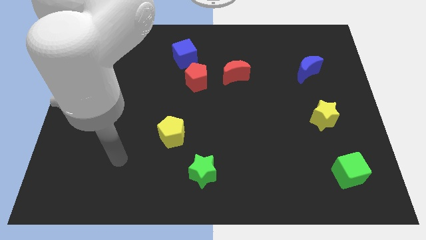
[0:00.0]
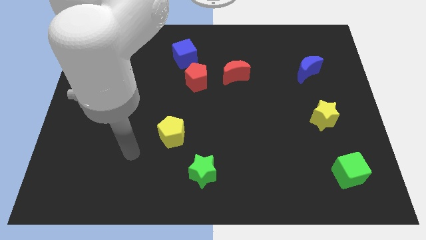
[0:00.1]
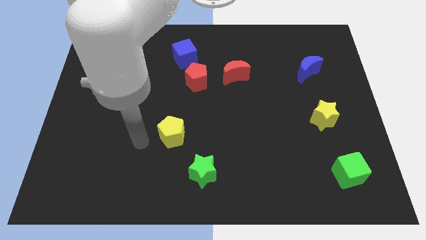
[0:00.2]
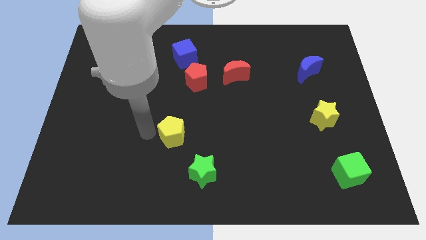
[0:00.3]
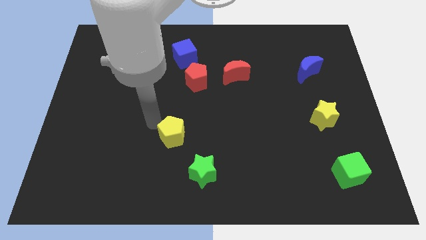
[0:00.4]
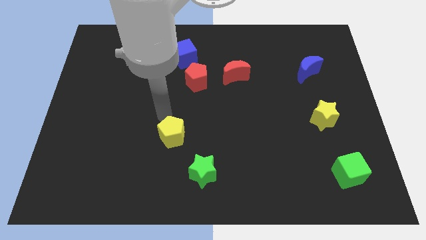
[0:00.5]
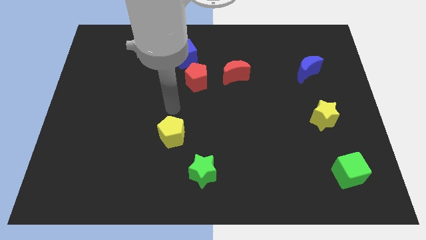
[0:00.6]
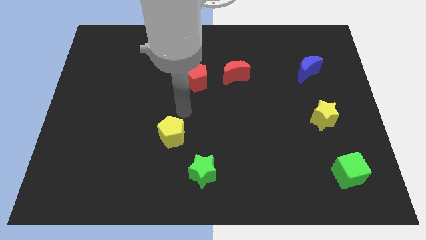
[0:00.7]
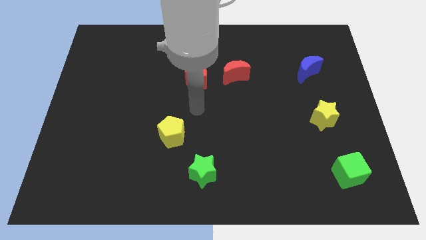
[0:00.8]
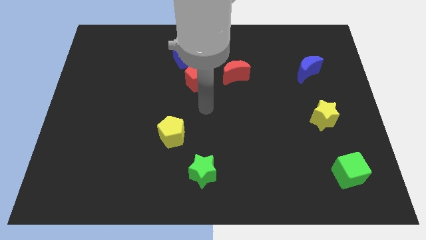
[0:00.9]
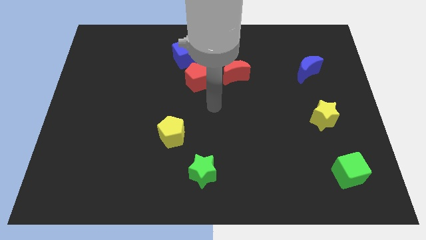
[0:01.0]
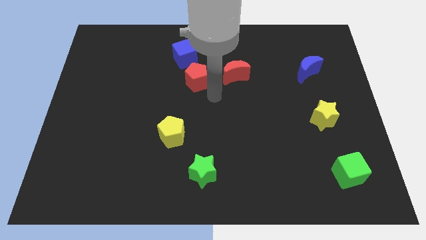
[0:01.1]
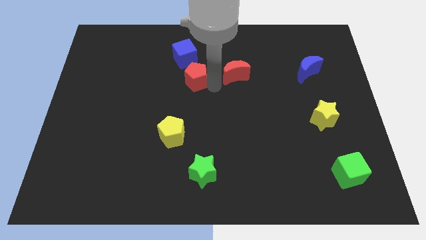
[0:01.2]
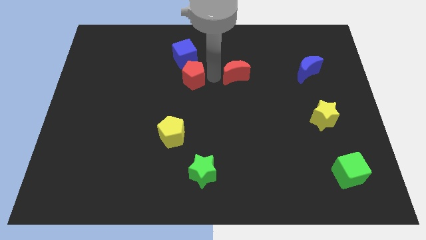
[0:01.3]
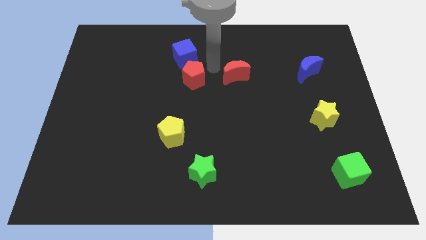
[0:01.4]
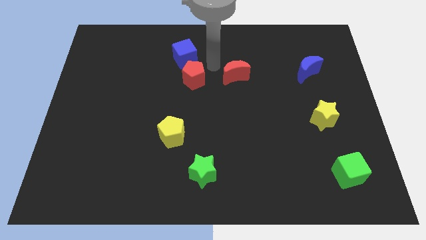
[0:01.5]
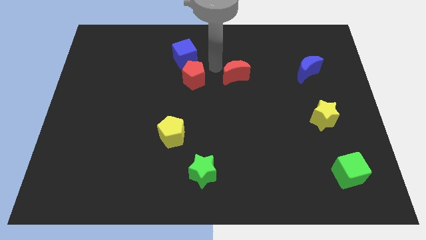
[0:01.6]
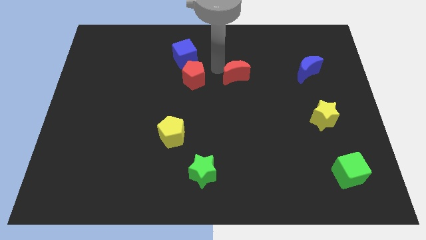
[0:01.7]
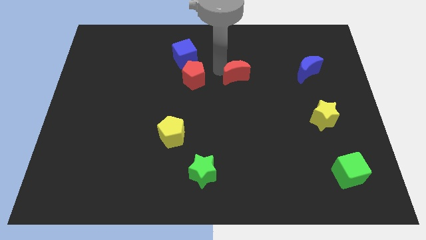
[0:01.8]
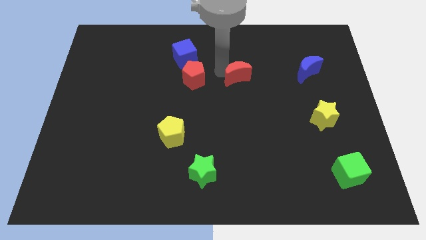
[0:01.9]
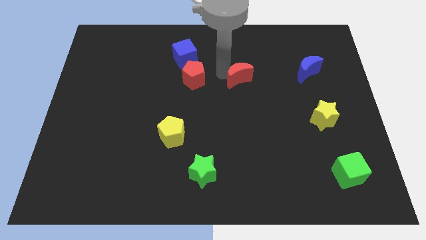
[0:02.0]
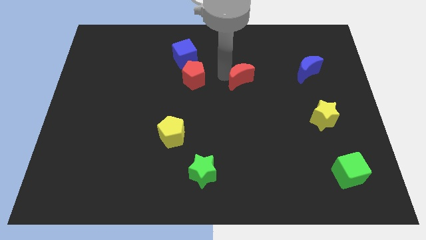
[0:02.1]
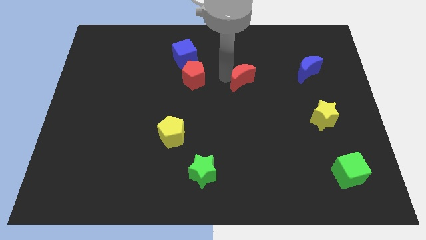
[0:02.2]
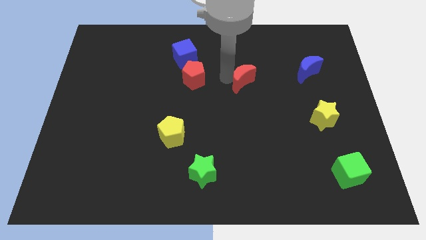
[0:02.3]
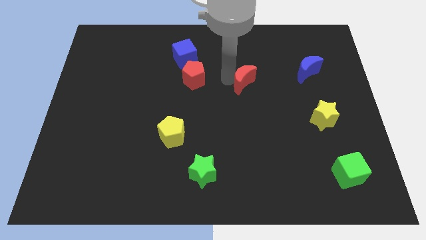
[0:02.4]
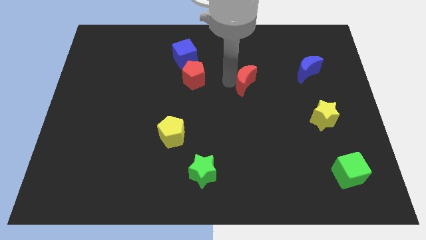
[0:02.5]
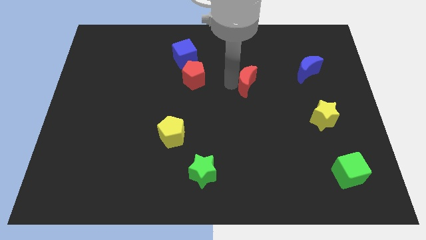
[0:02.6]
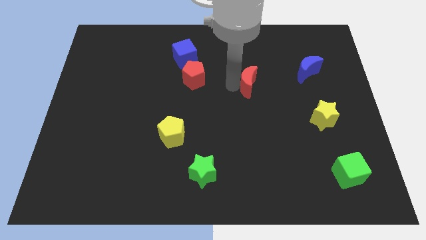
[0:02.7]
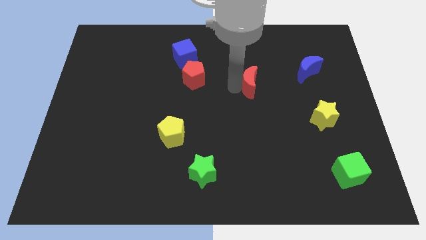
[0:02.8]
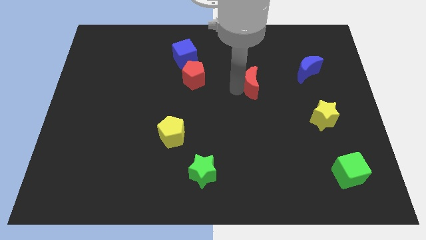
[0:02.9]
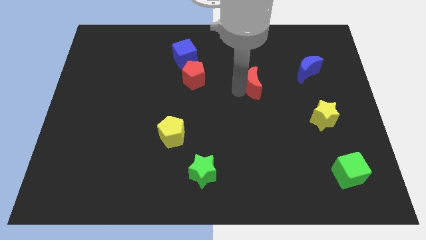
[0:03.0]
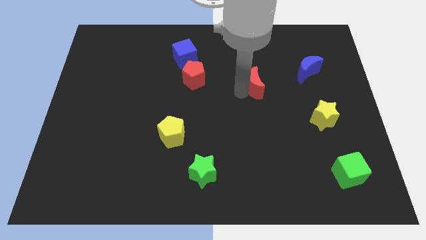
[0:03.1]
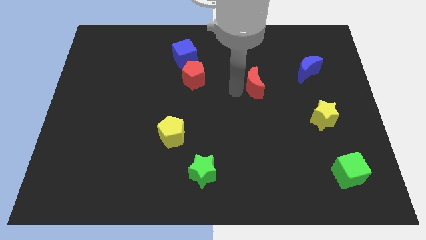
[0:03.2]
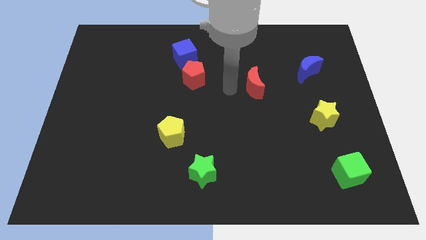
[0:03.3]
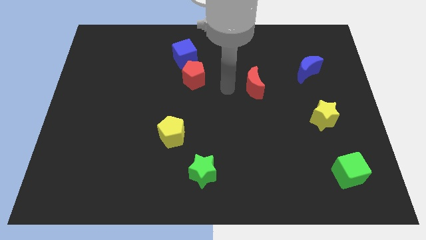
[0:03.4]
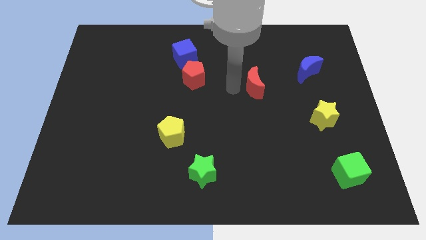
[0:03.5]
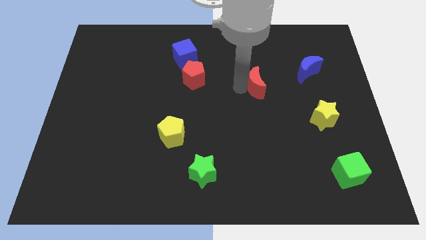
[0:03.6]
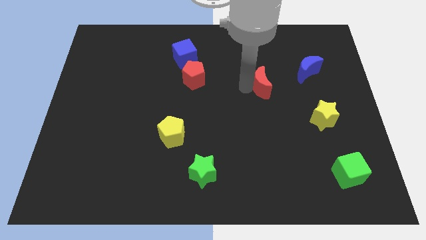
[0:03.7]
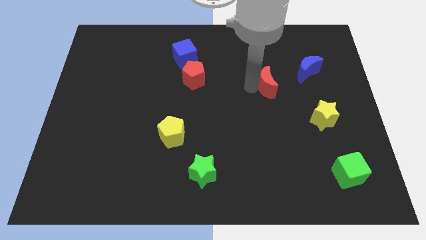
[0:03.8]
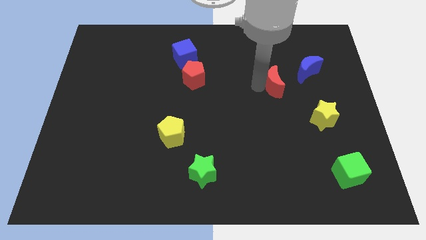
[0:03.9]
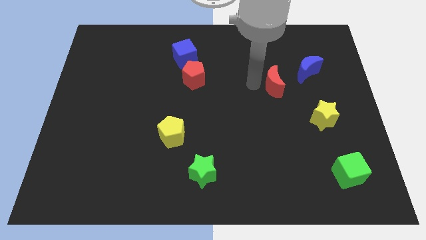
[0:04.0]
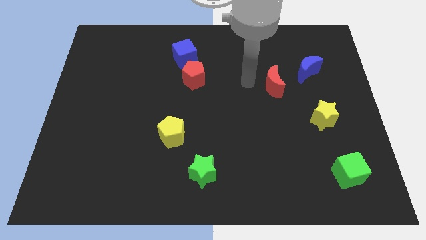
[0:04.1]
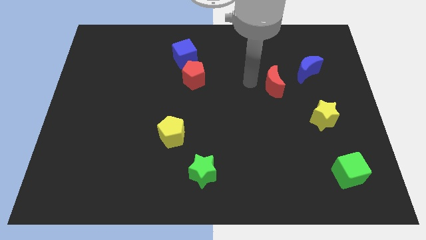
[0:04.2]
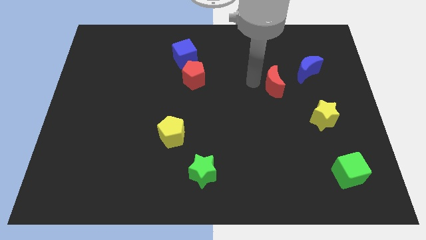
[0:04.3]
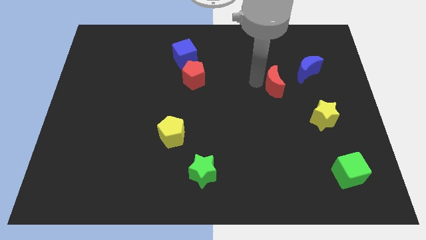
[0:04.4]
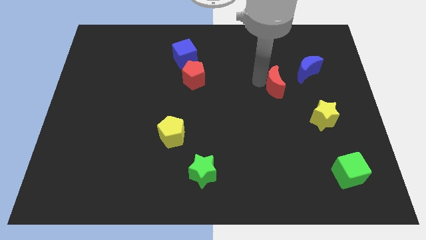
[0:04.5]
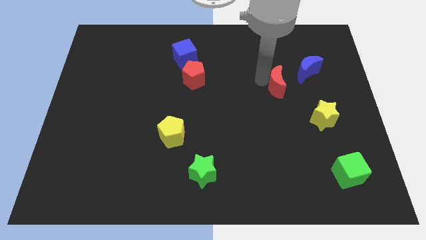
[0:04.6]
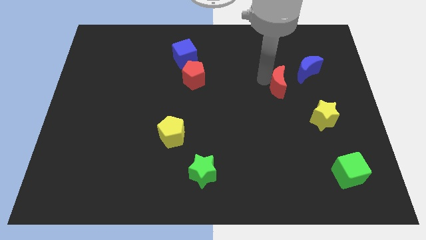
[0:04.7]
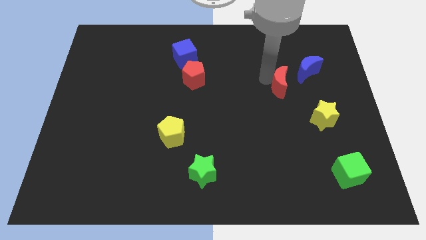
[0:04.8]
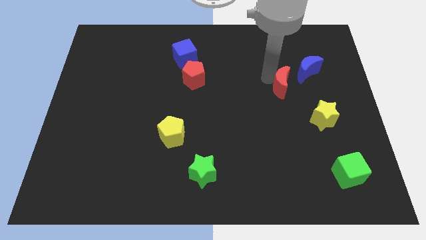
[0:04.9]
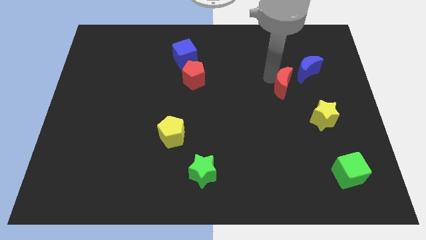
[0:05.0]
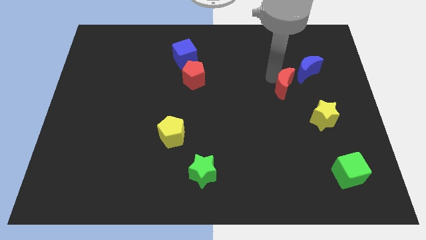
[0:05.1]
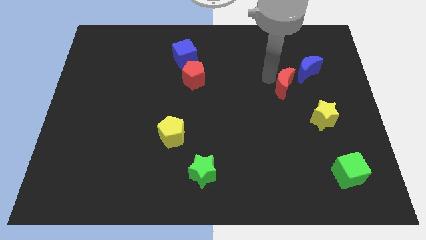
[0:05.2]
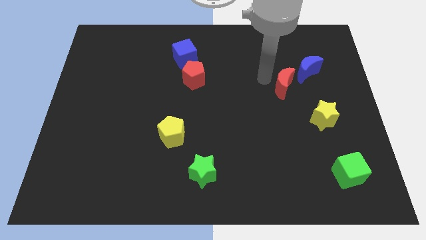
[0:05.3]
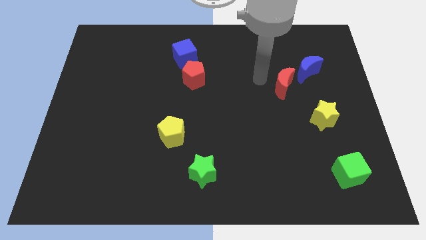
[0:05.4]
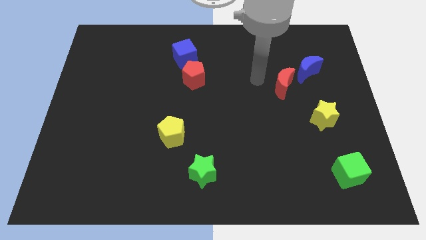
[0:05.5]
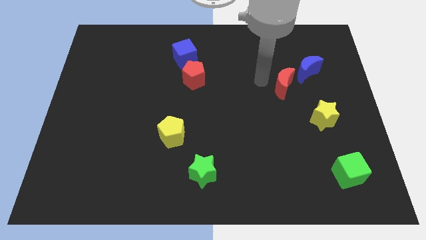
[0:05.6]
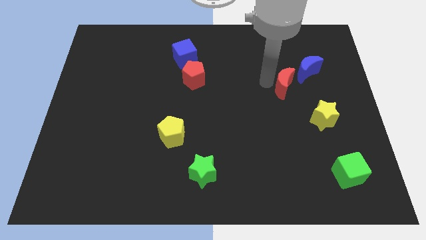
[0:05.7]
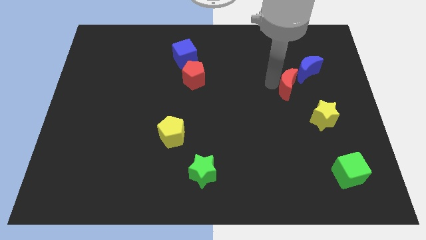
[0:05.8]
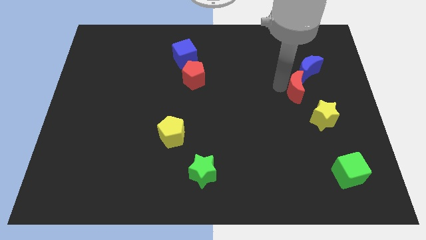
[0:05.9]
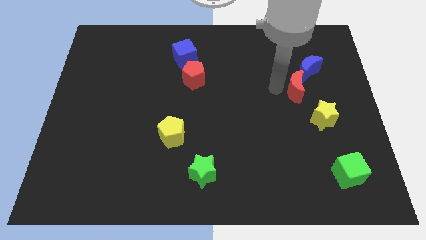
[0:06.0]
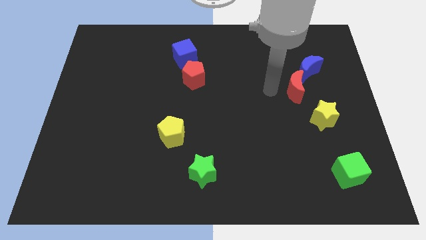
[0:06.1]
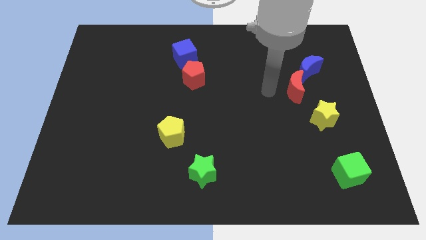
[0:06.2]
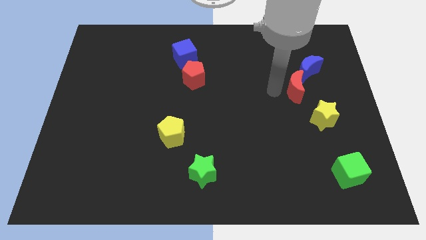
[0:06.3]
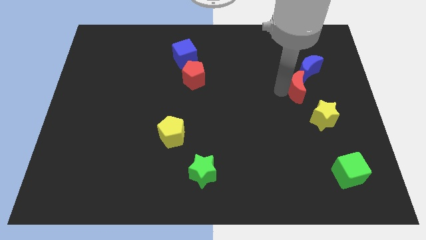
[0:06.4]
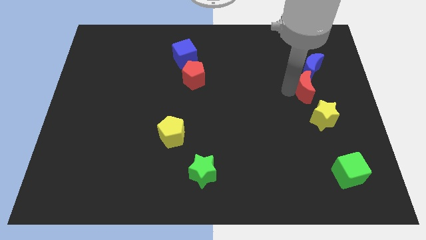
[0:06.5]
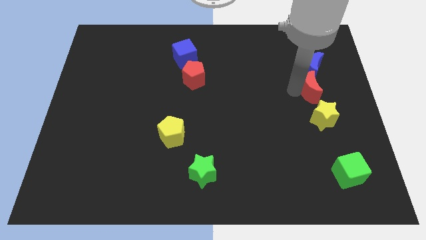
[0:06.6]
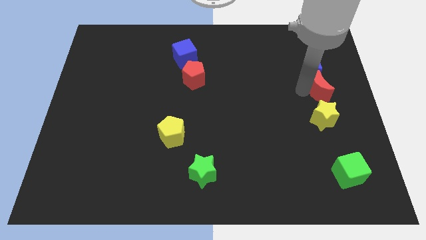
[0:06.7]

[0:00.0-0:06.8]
push the red moon to the center right
